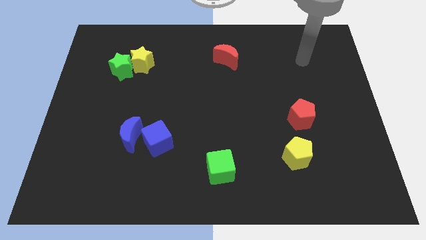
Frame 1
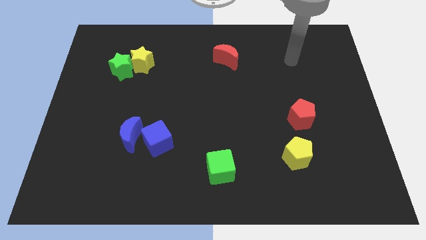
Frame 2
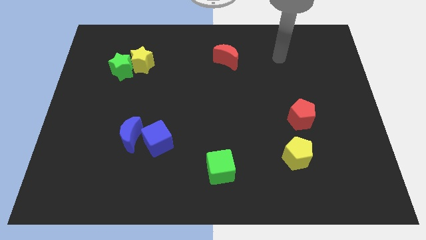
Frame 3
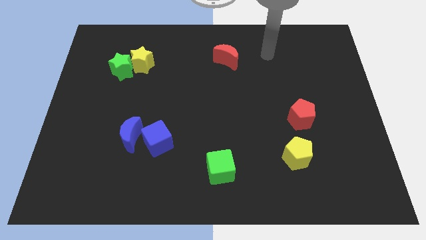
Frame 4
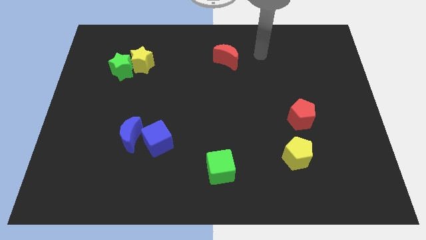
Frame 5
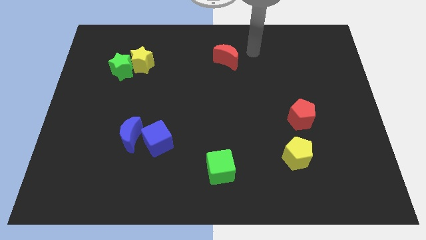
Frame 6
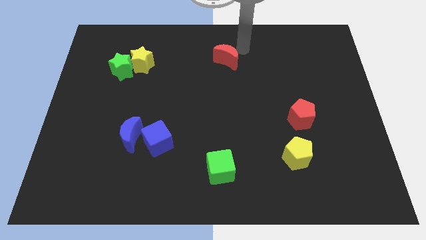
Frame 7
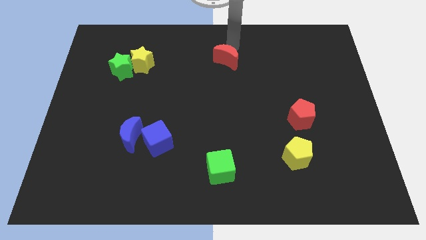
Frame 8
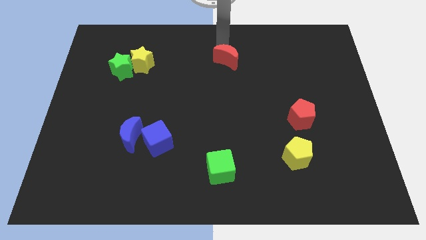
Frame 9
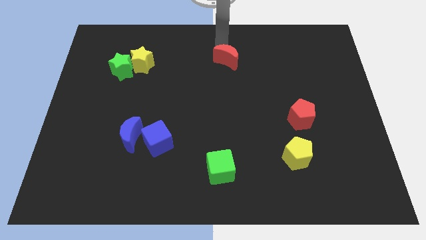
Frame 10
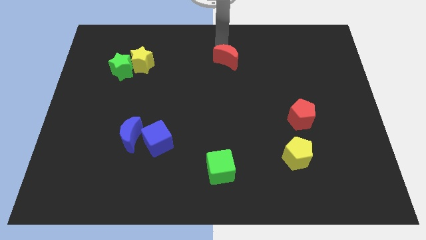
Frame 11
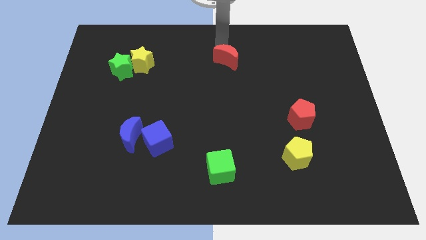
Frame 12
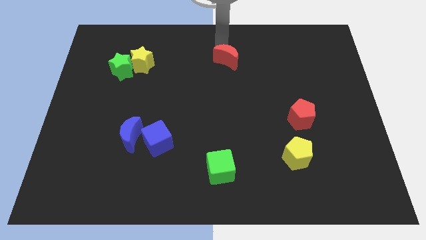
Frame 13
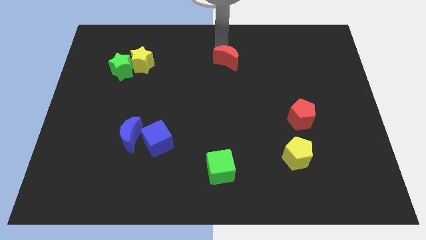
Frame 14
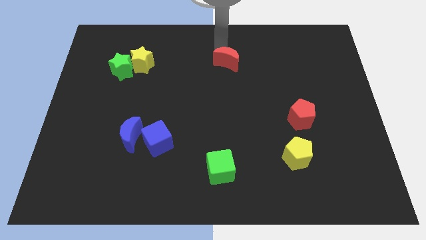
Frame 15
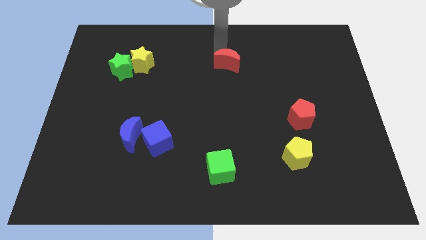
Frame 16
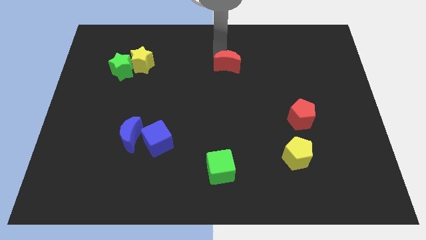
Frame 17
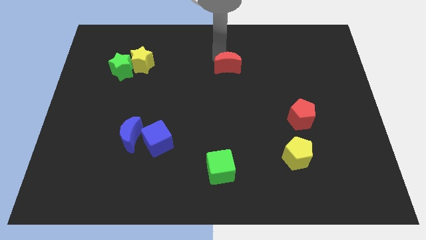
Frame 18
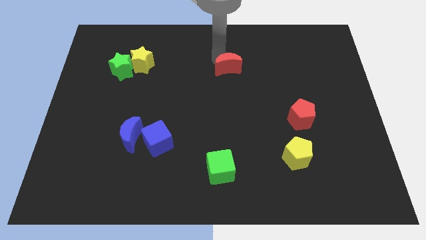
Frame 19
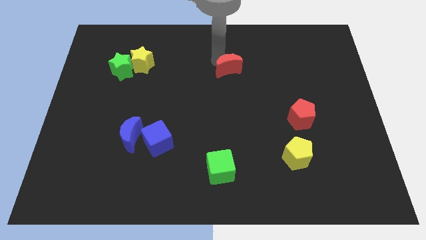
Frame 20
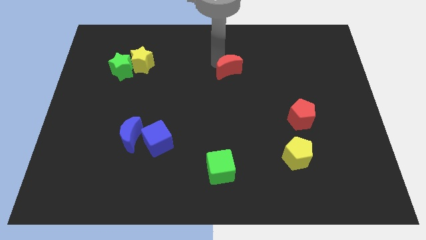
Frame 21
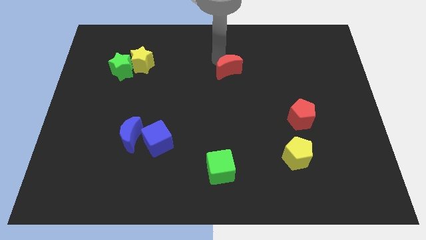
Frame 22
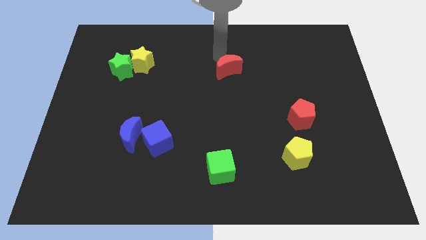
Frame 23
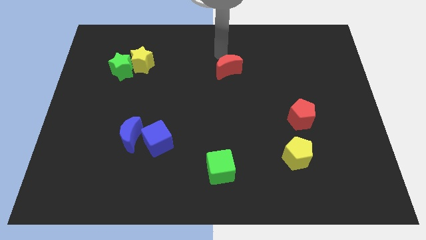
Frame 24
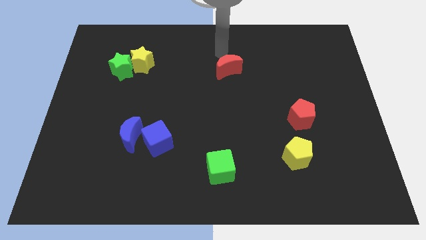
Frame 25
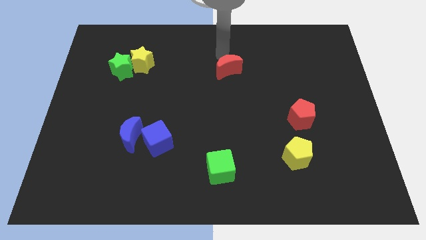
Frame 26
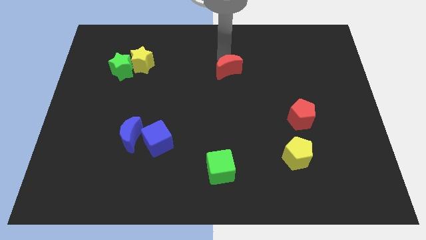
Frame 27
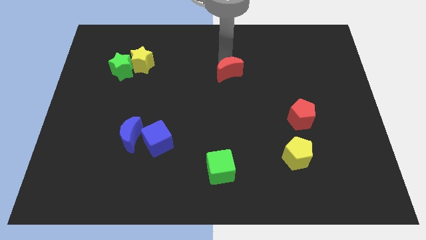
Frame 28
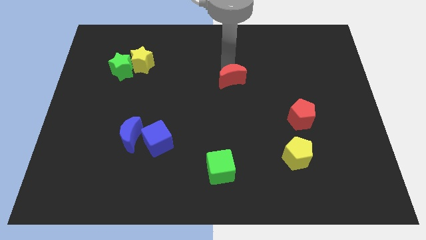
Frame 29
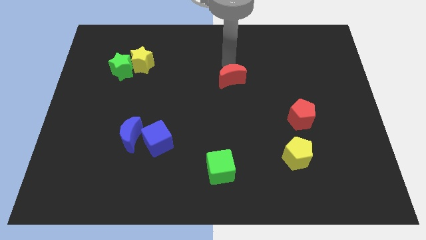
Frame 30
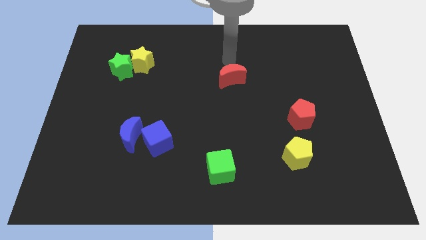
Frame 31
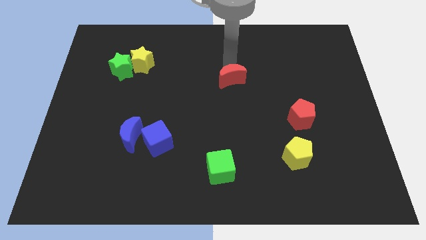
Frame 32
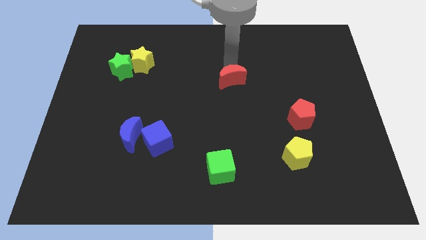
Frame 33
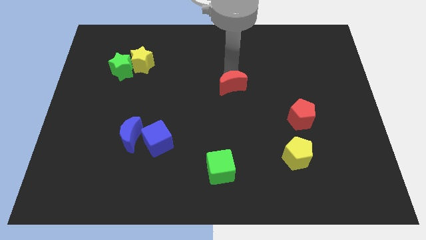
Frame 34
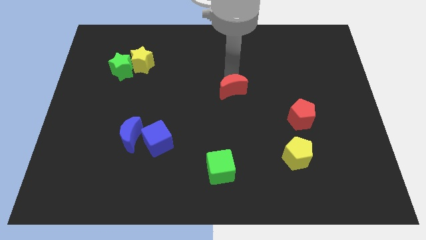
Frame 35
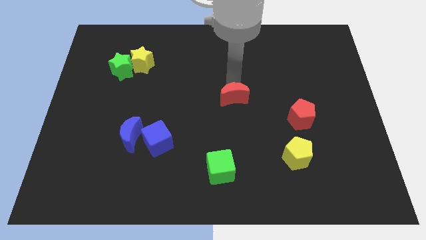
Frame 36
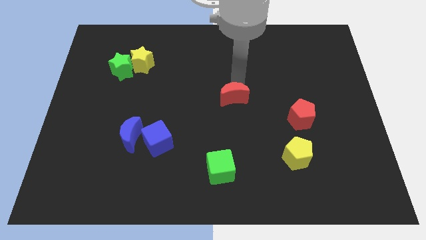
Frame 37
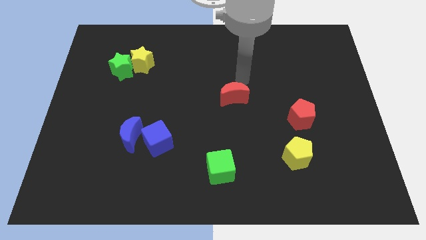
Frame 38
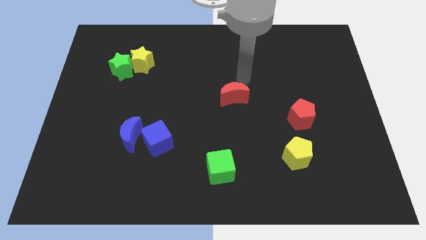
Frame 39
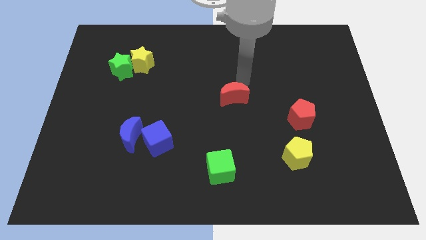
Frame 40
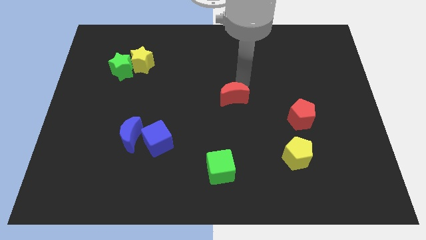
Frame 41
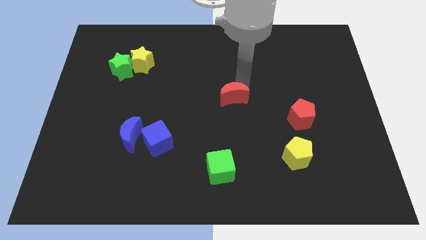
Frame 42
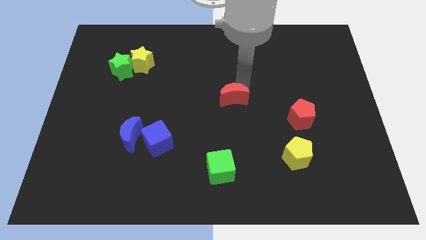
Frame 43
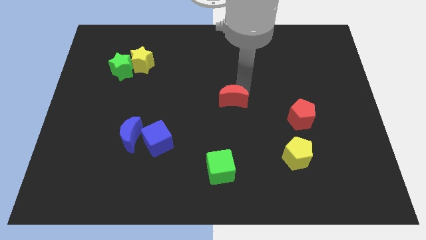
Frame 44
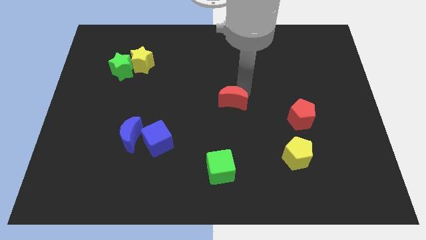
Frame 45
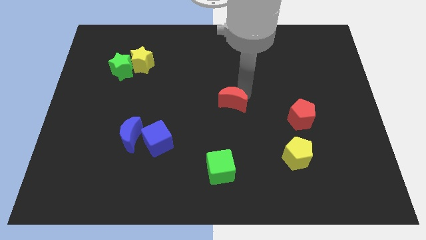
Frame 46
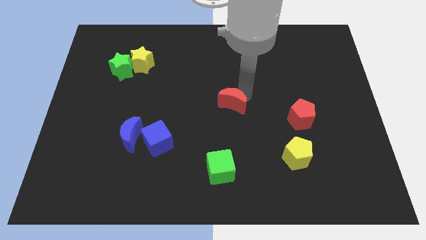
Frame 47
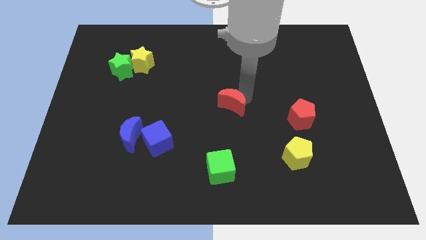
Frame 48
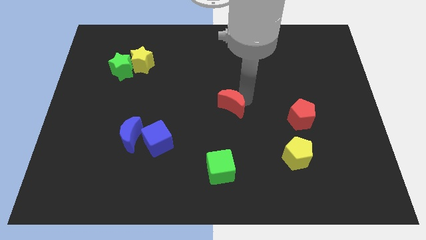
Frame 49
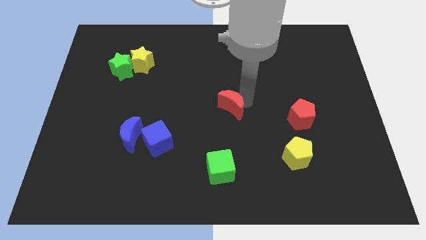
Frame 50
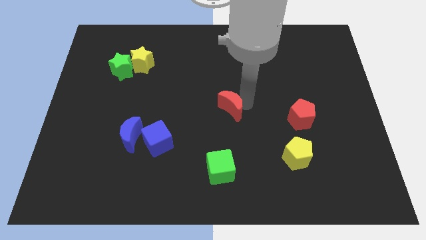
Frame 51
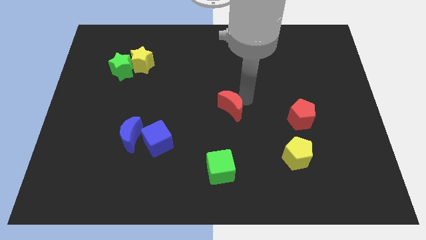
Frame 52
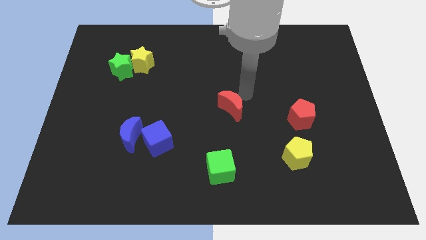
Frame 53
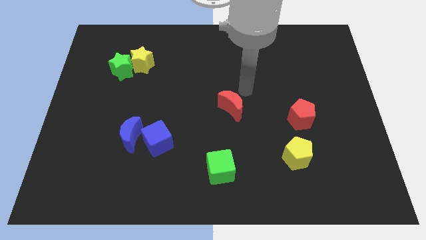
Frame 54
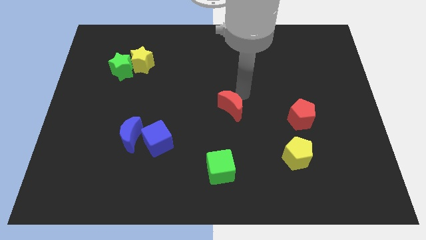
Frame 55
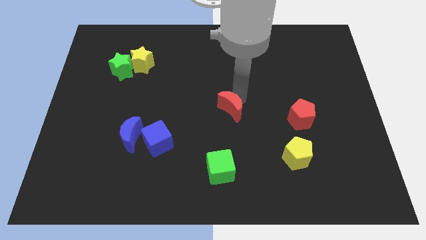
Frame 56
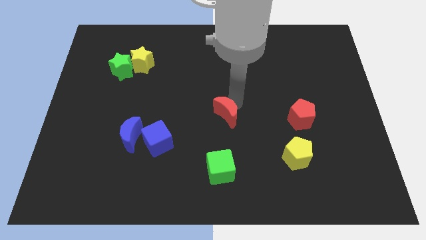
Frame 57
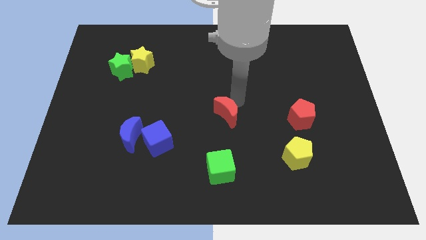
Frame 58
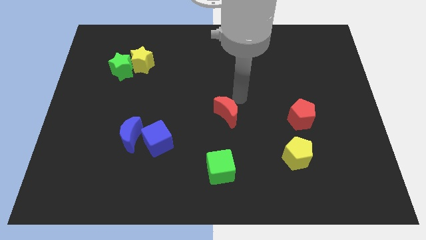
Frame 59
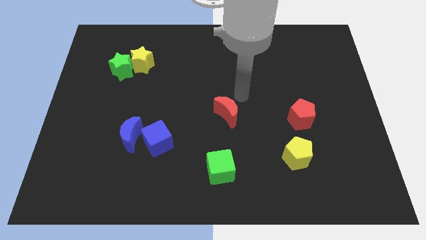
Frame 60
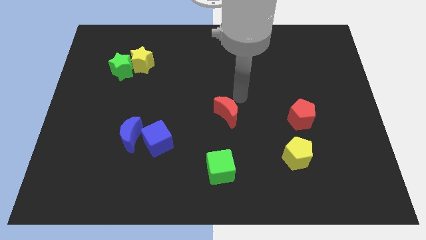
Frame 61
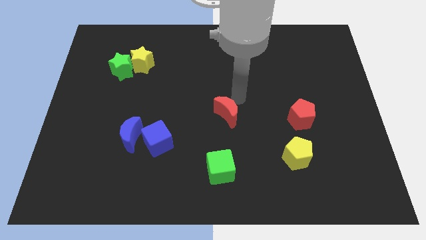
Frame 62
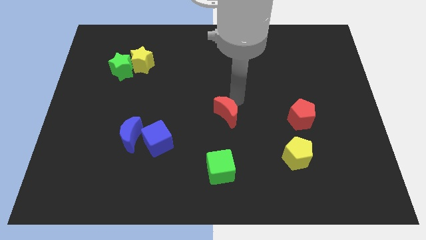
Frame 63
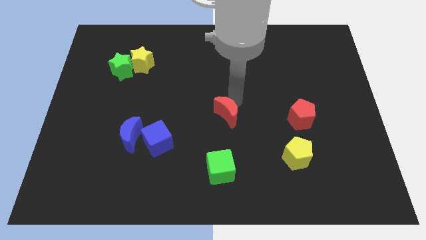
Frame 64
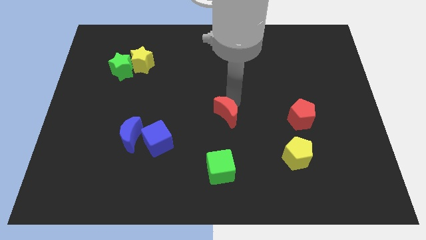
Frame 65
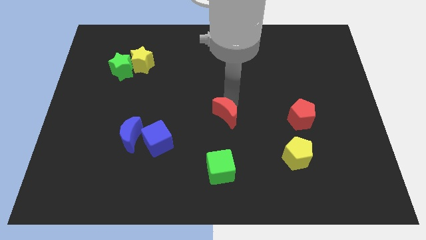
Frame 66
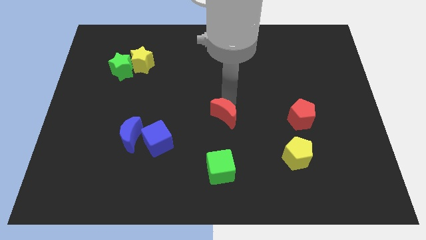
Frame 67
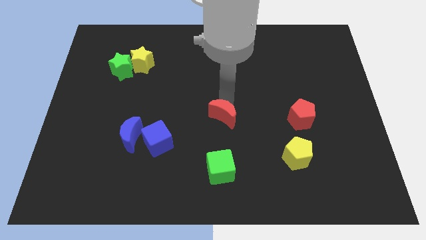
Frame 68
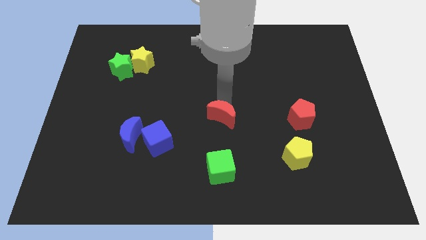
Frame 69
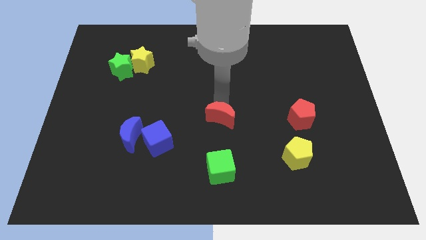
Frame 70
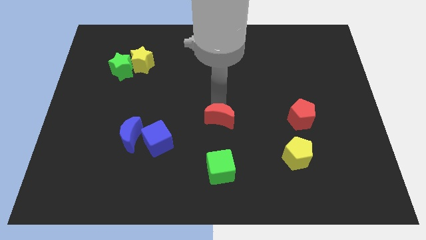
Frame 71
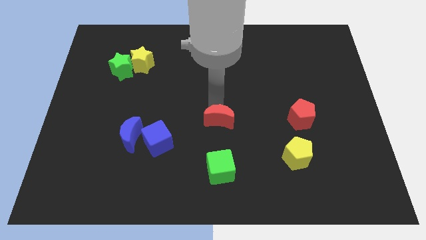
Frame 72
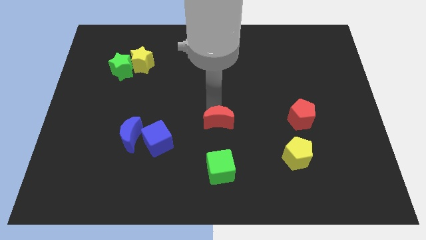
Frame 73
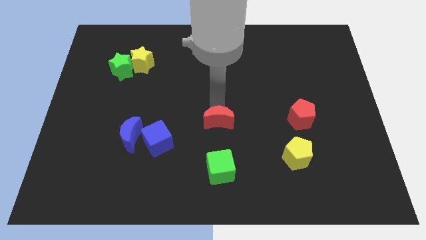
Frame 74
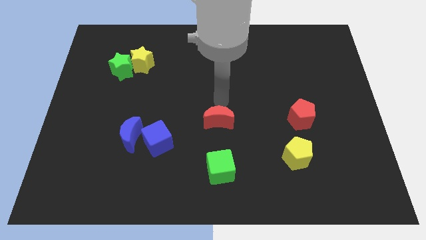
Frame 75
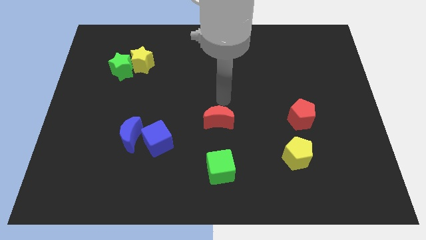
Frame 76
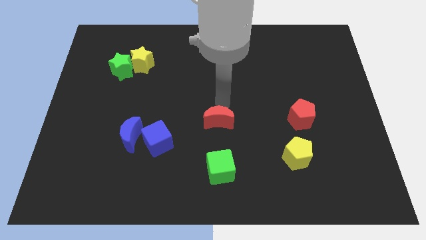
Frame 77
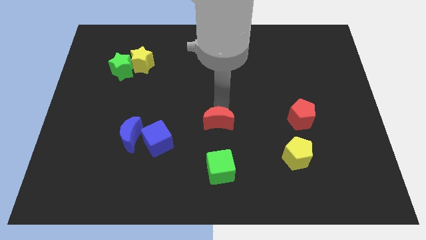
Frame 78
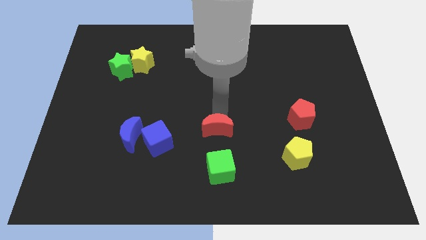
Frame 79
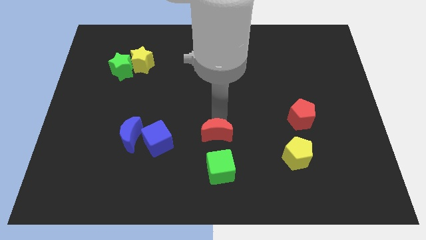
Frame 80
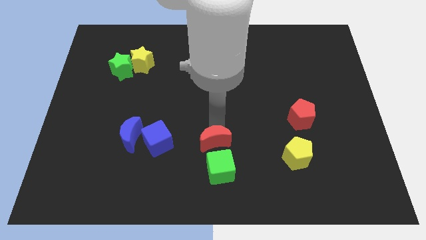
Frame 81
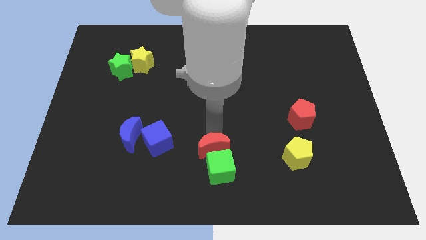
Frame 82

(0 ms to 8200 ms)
put the red moon towards the green cube
